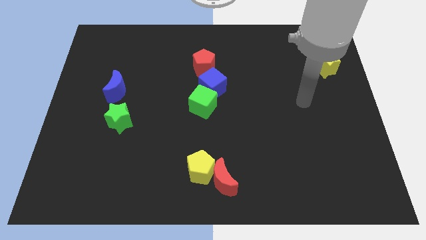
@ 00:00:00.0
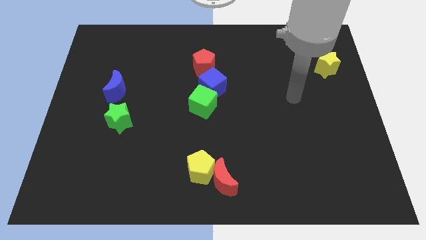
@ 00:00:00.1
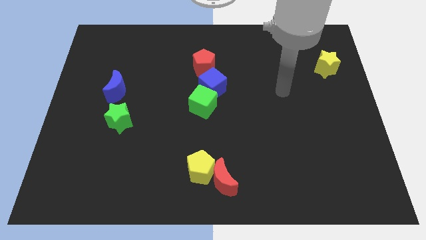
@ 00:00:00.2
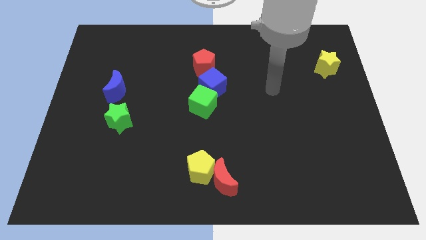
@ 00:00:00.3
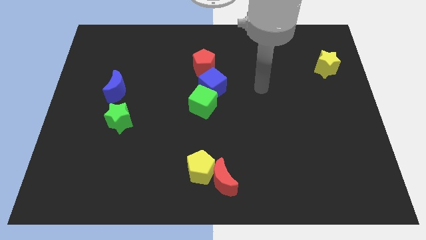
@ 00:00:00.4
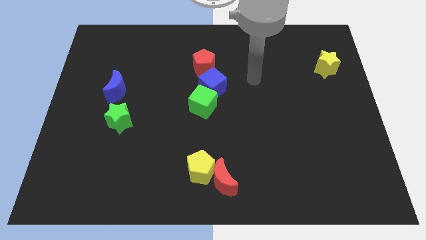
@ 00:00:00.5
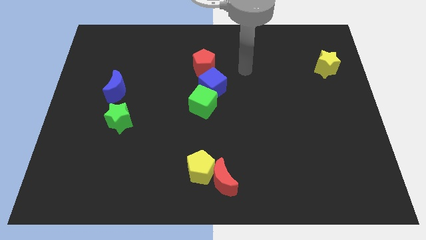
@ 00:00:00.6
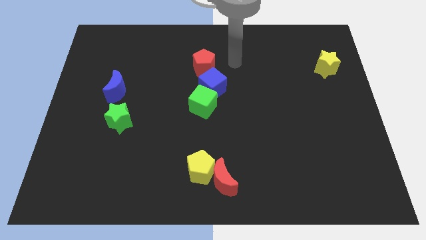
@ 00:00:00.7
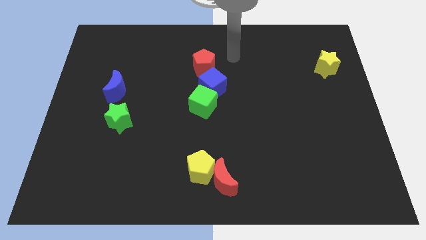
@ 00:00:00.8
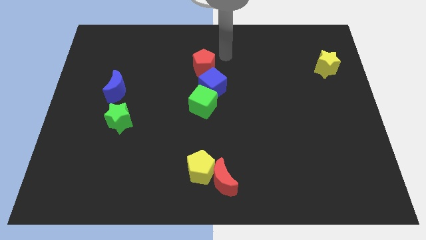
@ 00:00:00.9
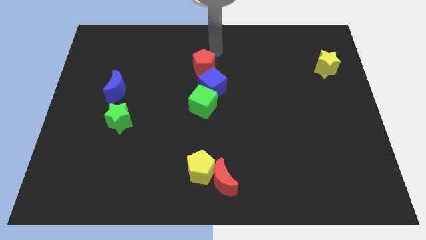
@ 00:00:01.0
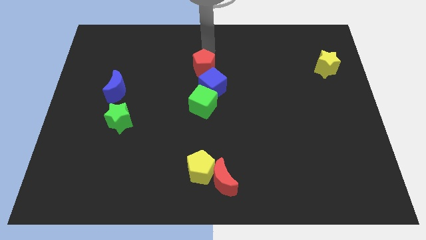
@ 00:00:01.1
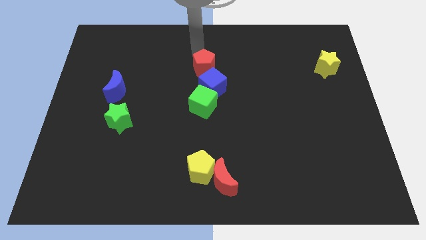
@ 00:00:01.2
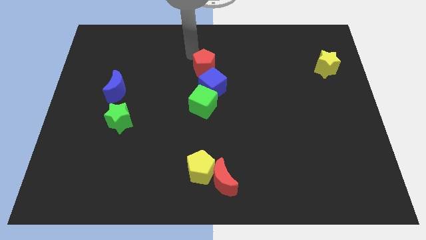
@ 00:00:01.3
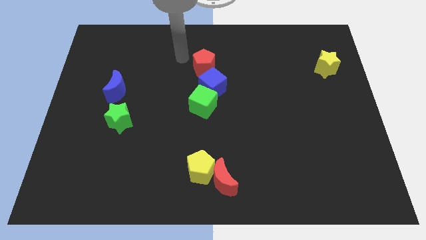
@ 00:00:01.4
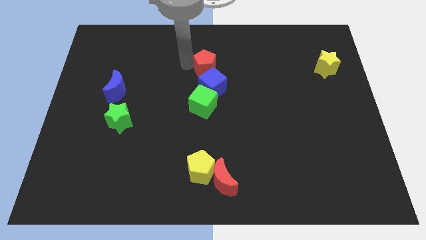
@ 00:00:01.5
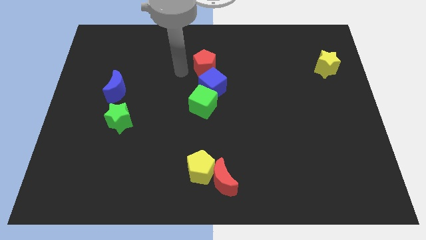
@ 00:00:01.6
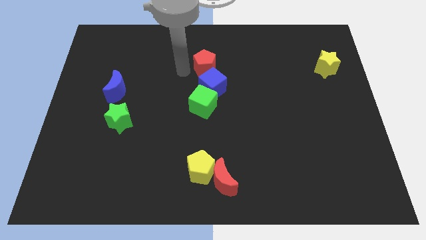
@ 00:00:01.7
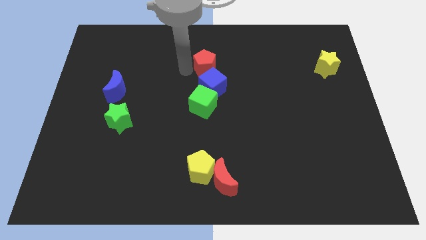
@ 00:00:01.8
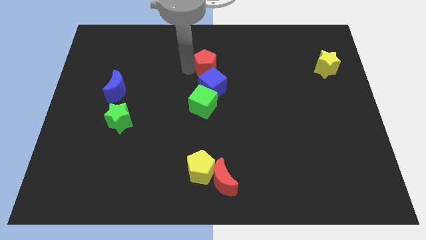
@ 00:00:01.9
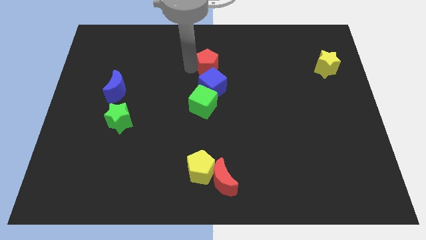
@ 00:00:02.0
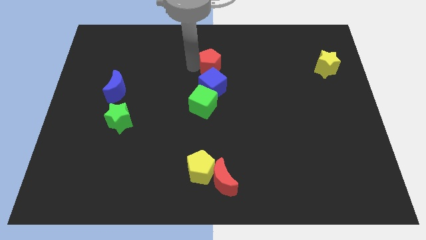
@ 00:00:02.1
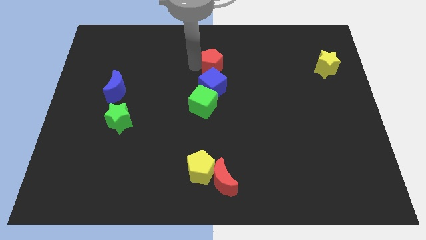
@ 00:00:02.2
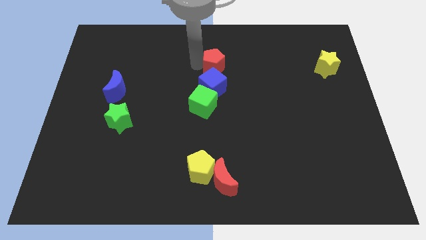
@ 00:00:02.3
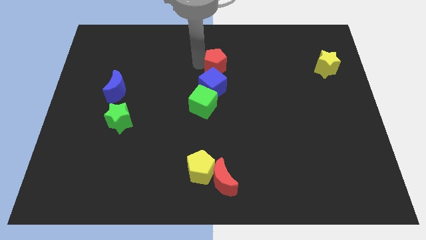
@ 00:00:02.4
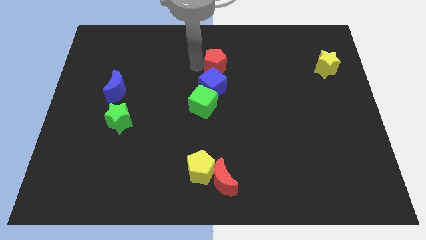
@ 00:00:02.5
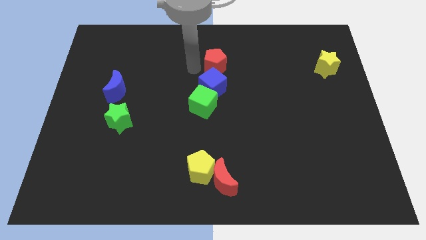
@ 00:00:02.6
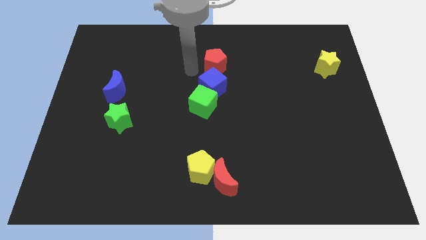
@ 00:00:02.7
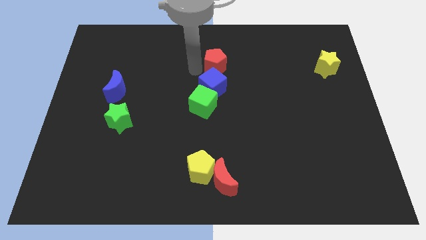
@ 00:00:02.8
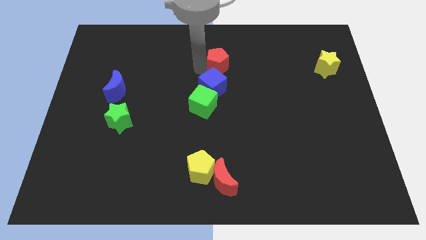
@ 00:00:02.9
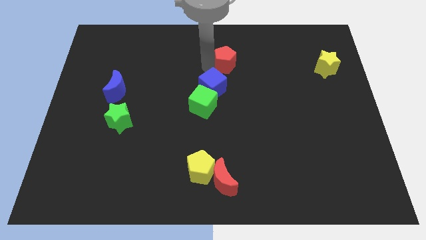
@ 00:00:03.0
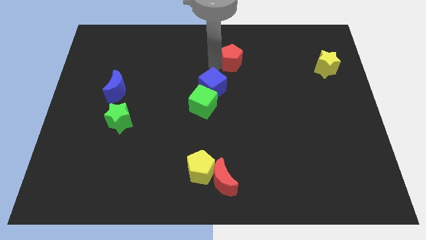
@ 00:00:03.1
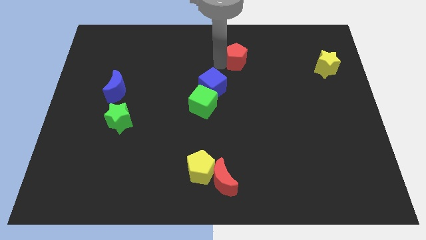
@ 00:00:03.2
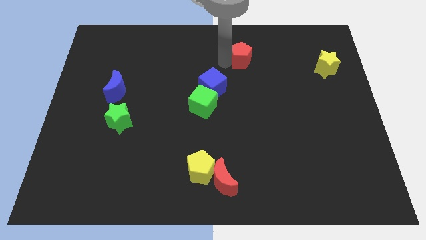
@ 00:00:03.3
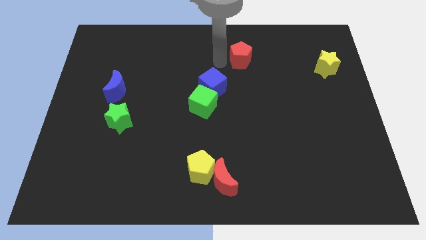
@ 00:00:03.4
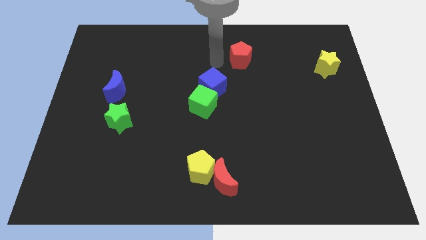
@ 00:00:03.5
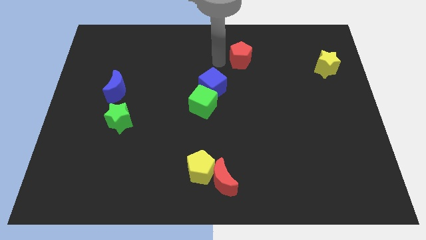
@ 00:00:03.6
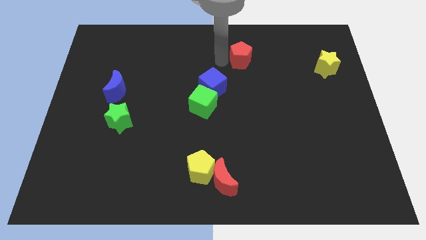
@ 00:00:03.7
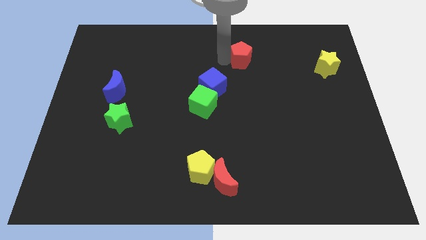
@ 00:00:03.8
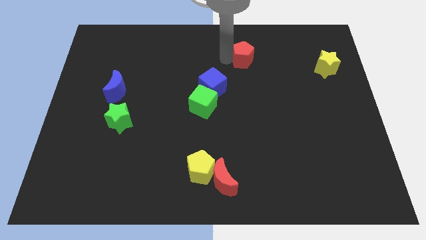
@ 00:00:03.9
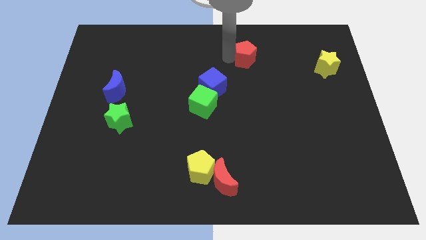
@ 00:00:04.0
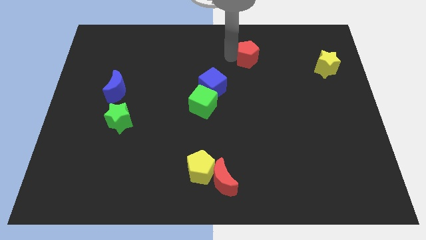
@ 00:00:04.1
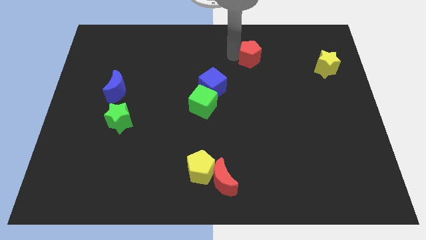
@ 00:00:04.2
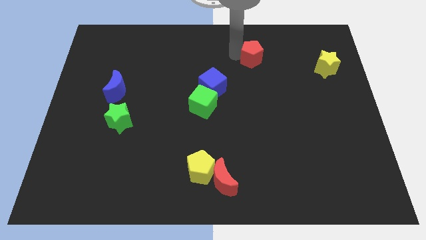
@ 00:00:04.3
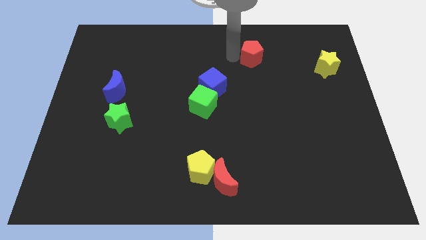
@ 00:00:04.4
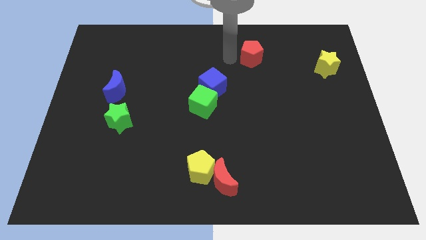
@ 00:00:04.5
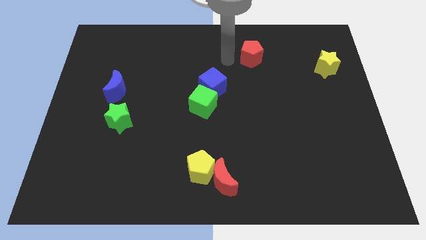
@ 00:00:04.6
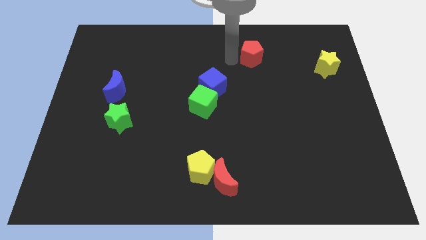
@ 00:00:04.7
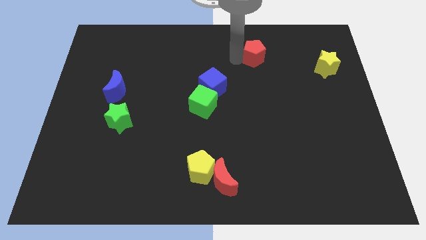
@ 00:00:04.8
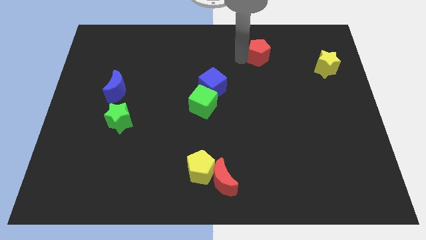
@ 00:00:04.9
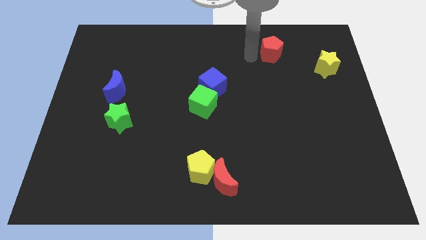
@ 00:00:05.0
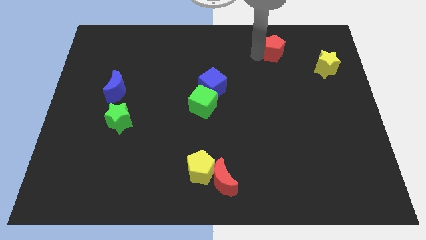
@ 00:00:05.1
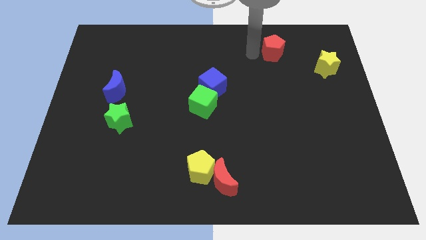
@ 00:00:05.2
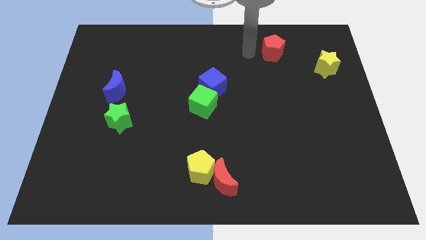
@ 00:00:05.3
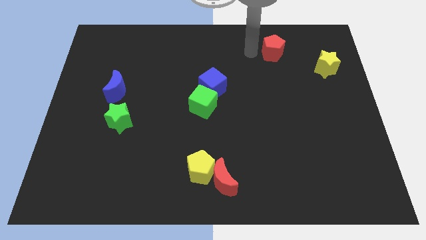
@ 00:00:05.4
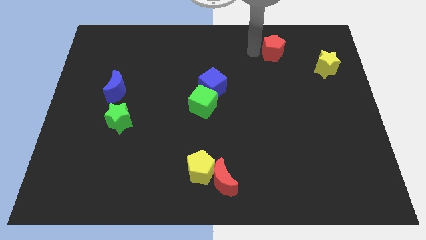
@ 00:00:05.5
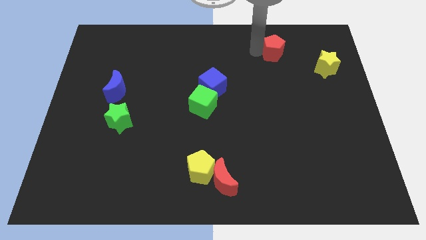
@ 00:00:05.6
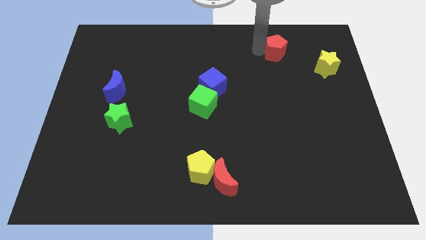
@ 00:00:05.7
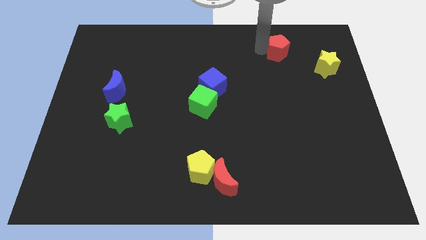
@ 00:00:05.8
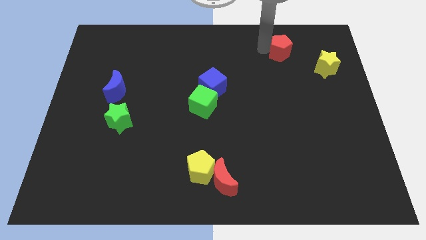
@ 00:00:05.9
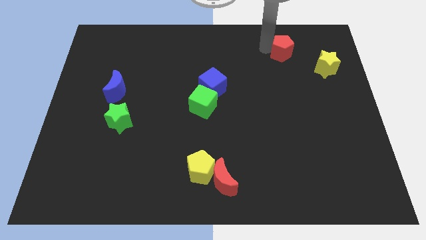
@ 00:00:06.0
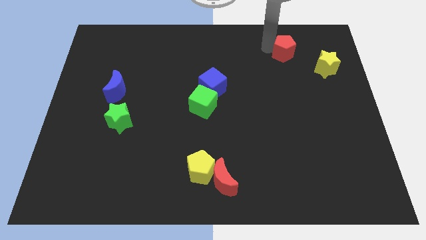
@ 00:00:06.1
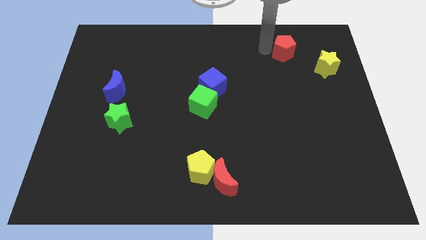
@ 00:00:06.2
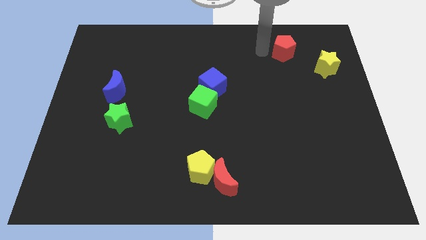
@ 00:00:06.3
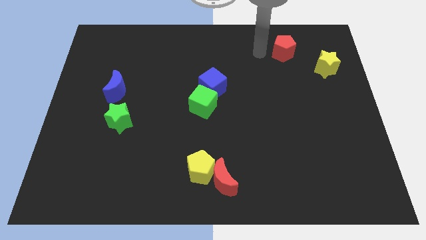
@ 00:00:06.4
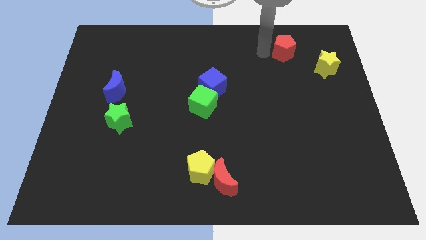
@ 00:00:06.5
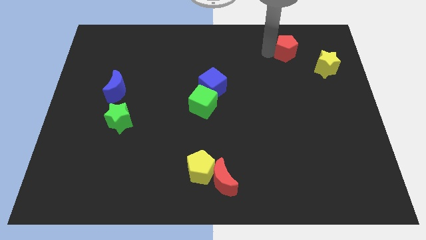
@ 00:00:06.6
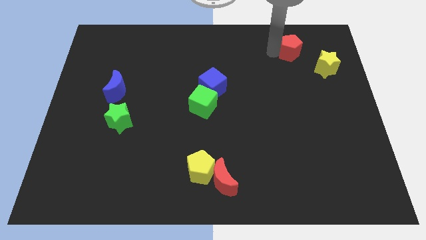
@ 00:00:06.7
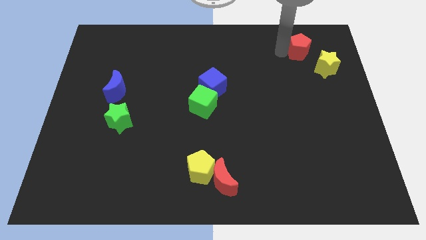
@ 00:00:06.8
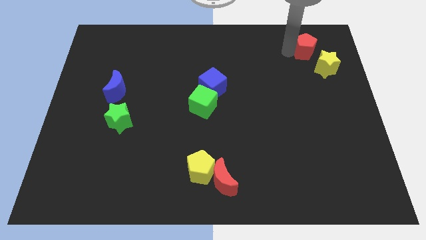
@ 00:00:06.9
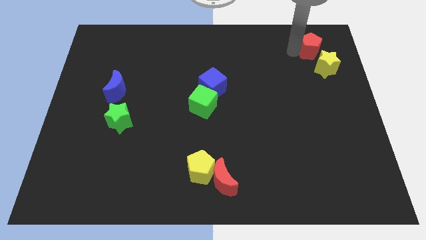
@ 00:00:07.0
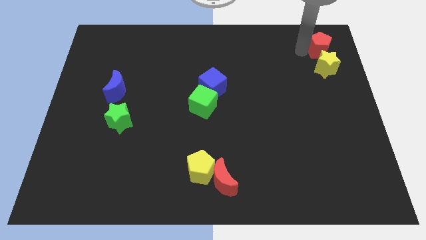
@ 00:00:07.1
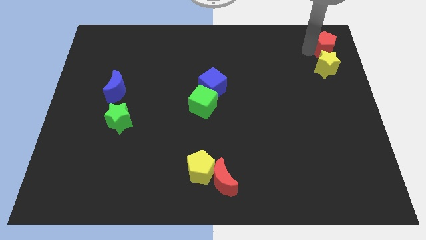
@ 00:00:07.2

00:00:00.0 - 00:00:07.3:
slide the red pentagon to the top right of the board
